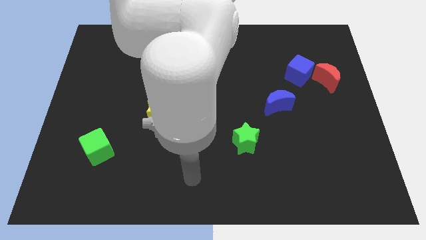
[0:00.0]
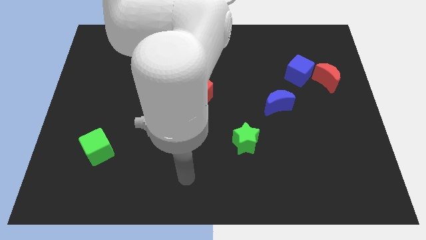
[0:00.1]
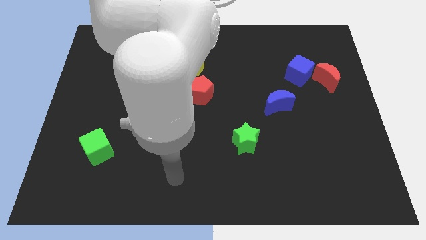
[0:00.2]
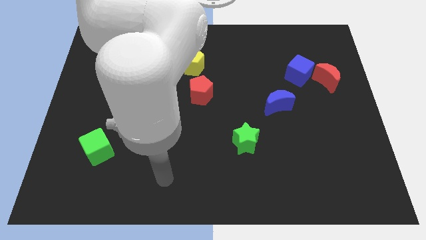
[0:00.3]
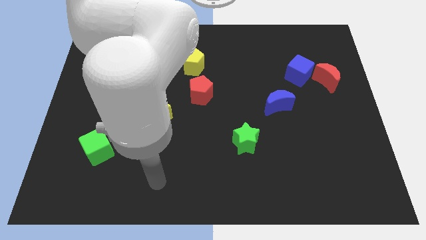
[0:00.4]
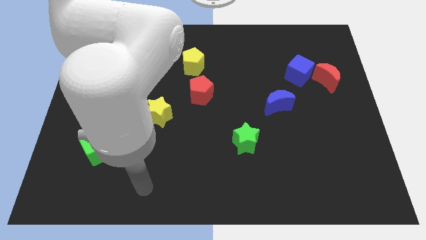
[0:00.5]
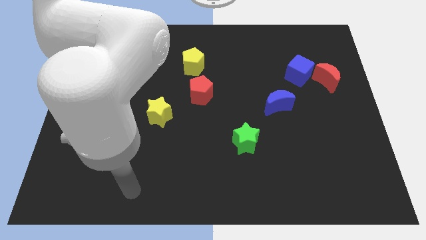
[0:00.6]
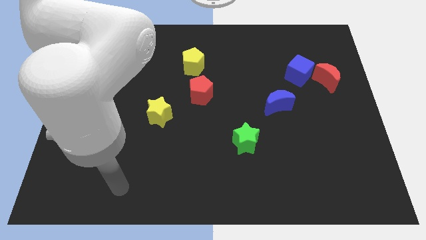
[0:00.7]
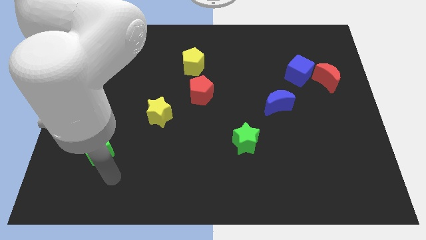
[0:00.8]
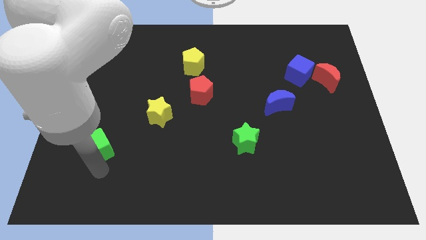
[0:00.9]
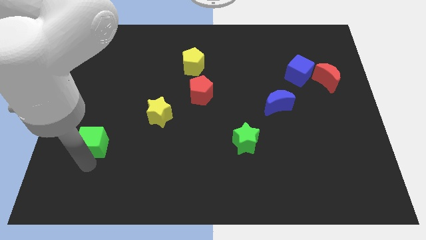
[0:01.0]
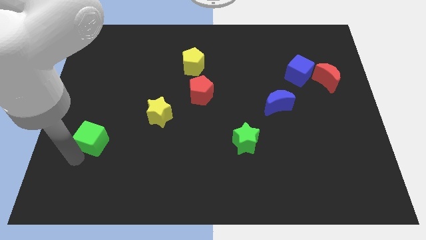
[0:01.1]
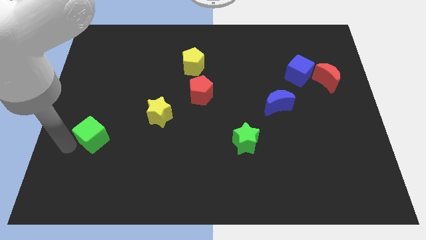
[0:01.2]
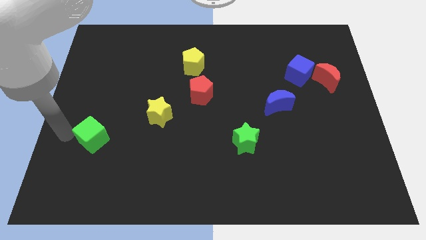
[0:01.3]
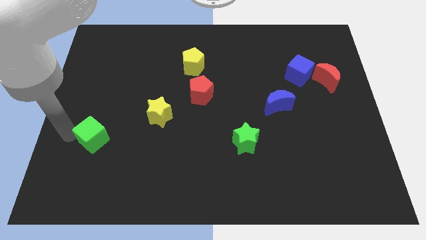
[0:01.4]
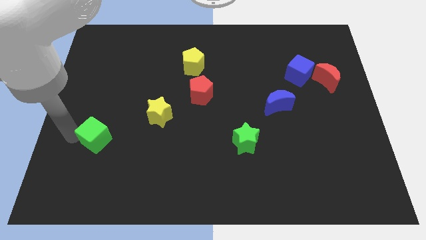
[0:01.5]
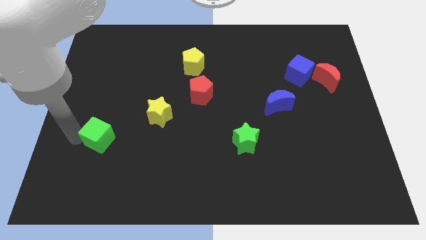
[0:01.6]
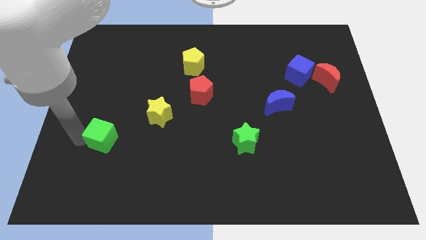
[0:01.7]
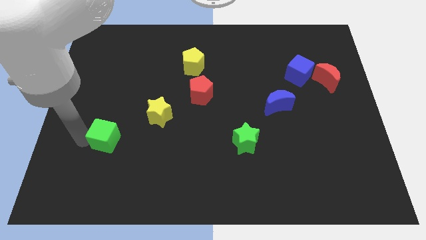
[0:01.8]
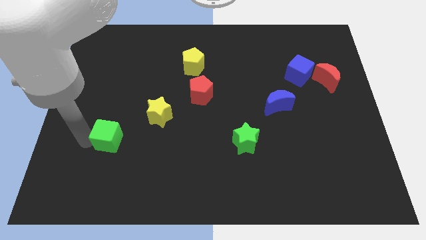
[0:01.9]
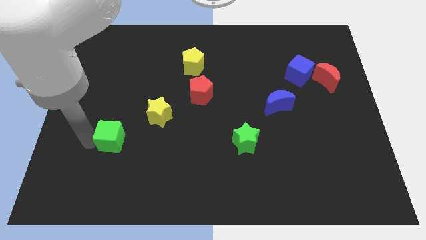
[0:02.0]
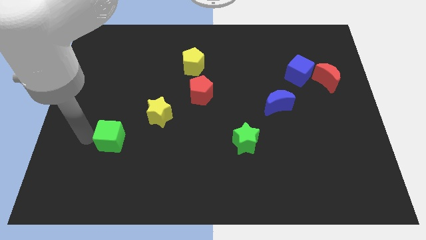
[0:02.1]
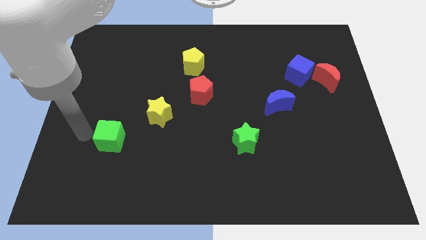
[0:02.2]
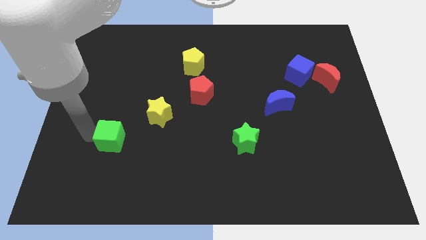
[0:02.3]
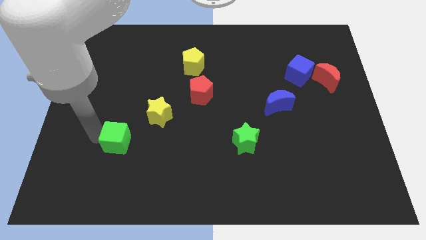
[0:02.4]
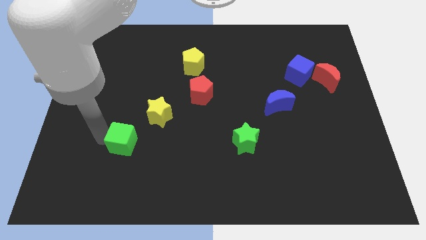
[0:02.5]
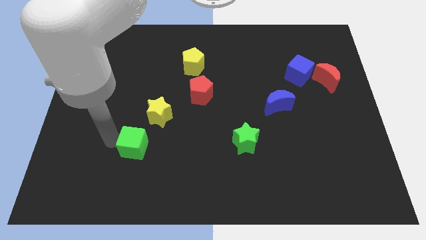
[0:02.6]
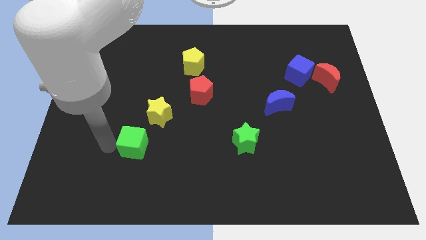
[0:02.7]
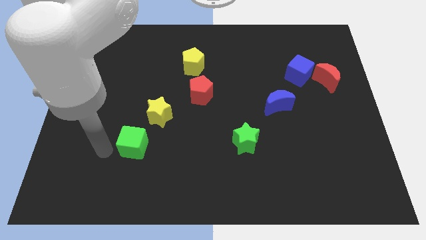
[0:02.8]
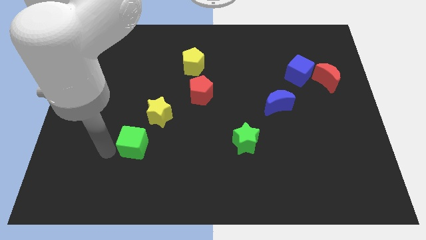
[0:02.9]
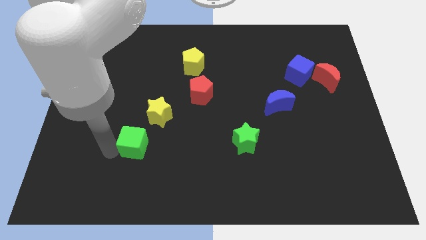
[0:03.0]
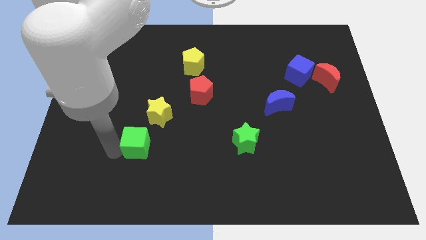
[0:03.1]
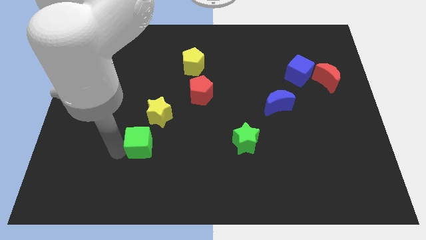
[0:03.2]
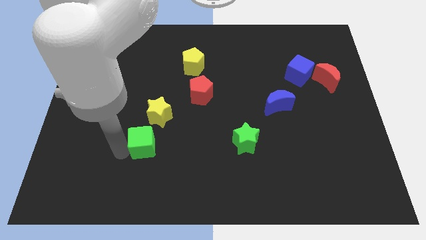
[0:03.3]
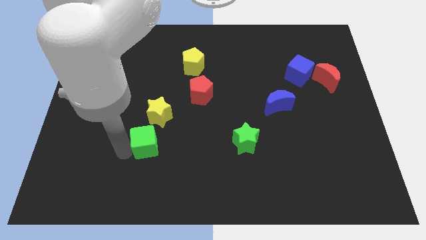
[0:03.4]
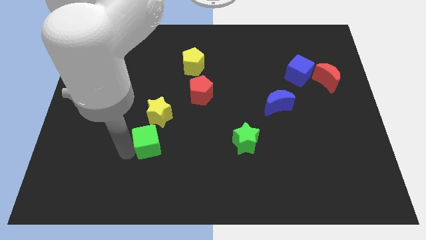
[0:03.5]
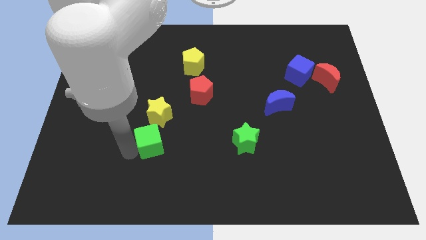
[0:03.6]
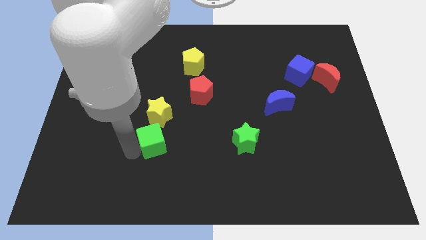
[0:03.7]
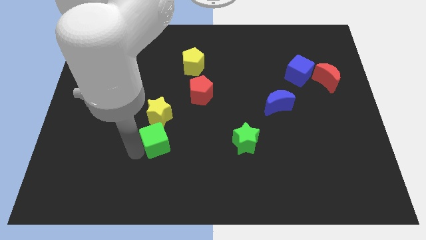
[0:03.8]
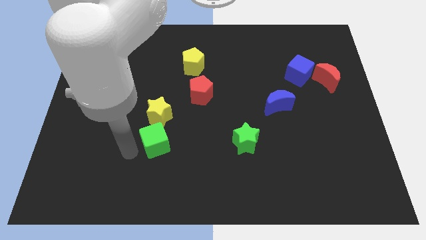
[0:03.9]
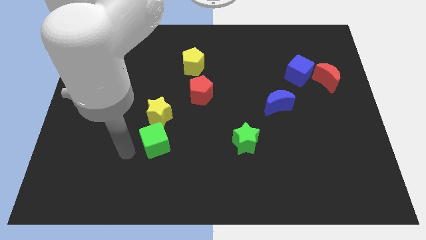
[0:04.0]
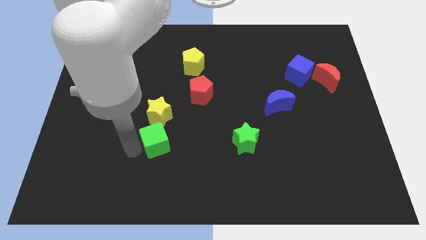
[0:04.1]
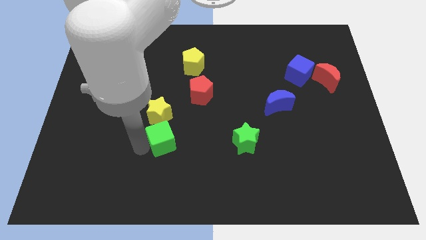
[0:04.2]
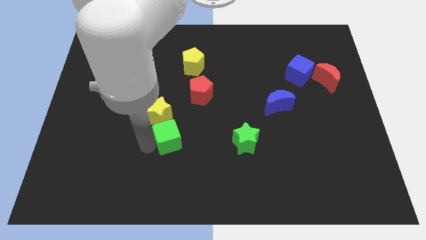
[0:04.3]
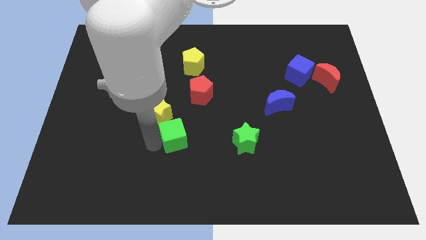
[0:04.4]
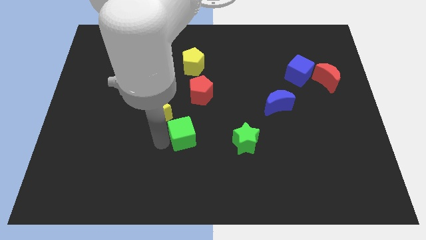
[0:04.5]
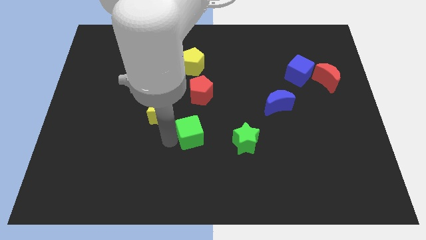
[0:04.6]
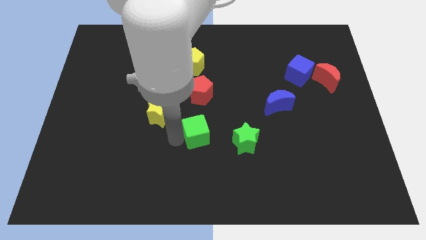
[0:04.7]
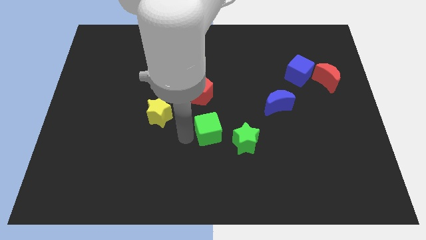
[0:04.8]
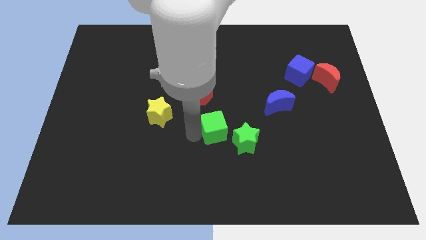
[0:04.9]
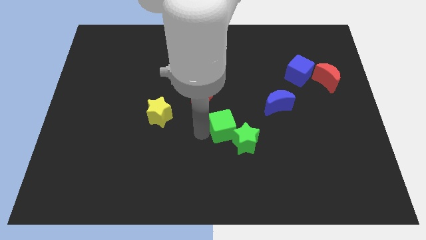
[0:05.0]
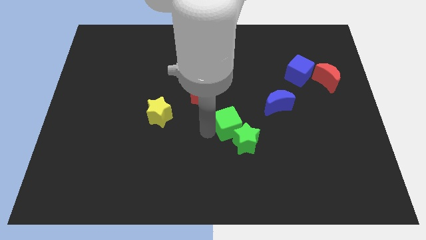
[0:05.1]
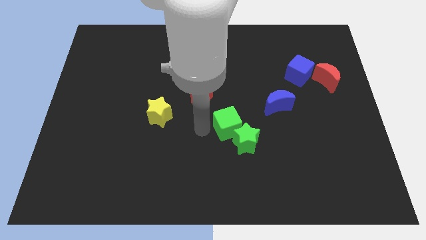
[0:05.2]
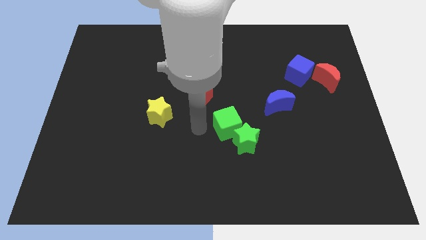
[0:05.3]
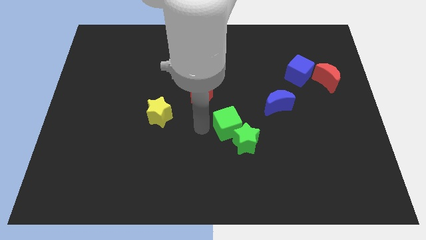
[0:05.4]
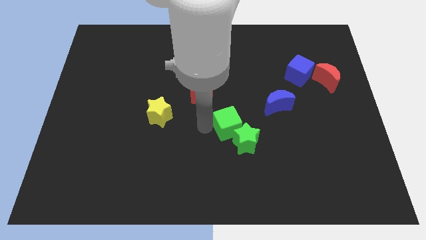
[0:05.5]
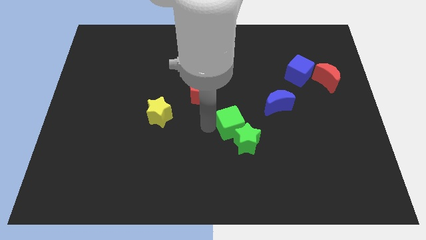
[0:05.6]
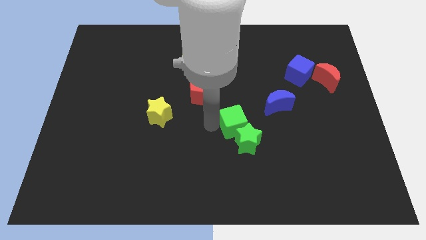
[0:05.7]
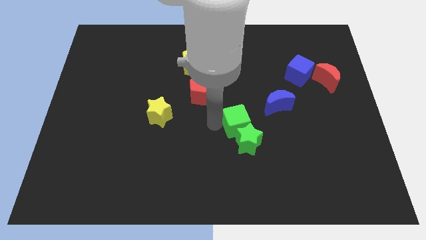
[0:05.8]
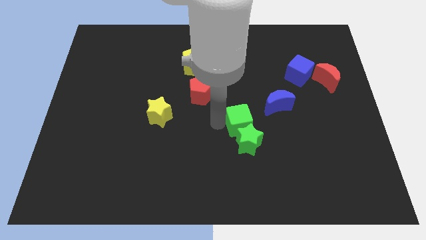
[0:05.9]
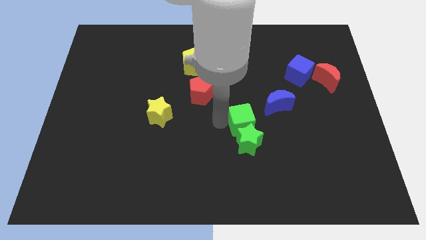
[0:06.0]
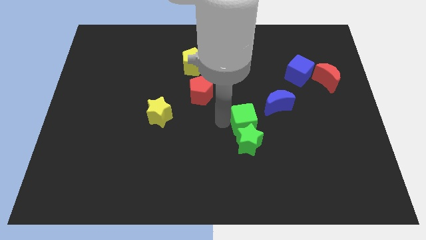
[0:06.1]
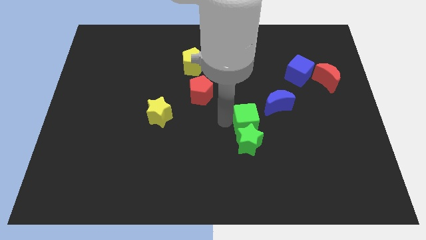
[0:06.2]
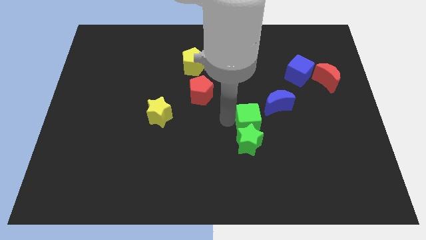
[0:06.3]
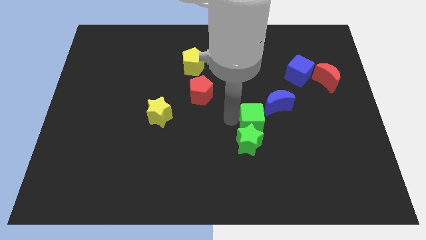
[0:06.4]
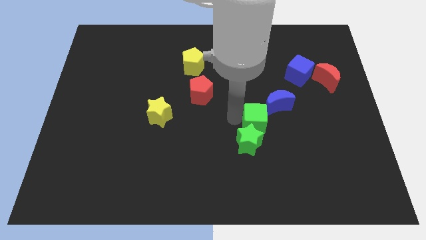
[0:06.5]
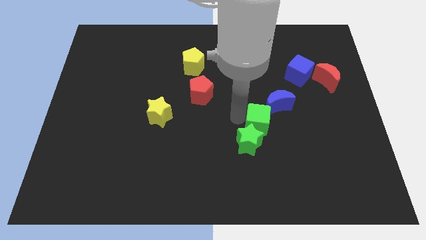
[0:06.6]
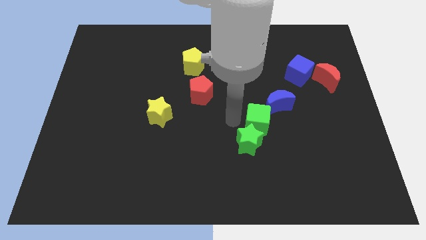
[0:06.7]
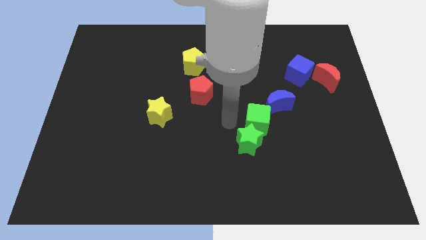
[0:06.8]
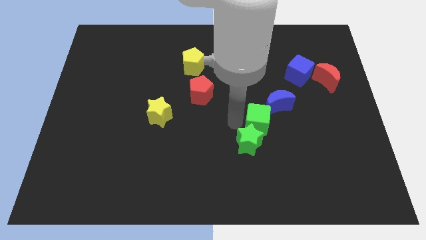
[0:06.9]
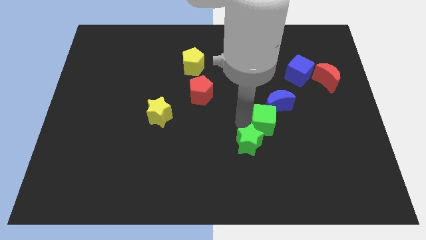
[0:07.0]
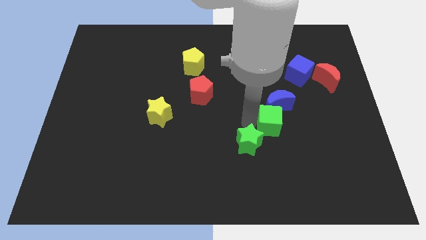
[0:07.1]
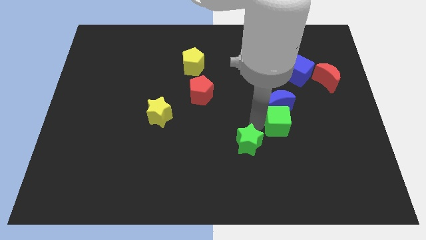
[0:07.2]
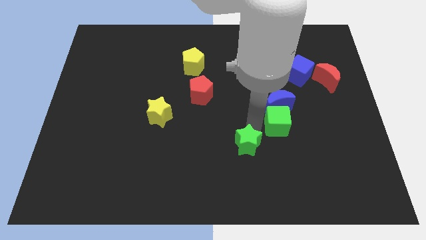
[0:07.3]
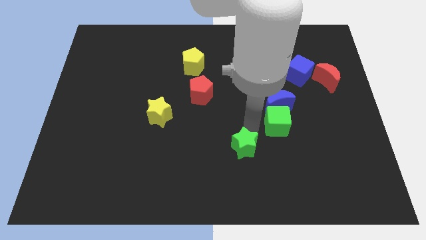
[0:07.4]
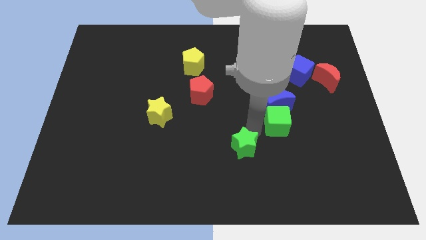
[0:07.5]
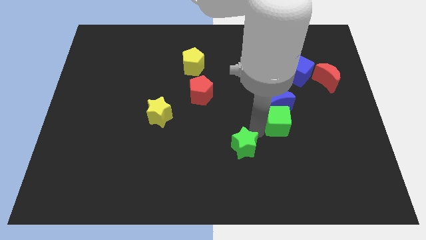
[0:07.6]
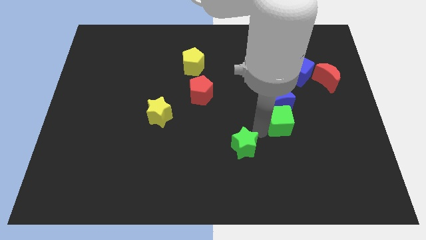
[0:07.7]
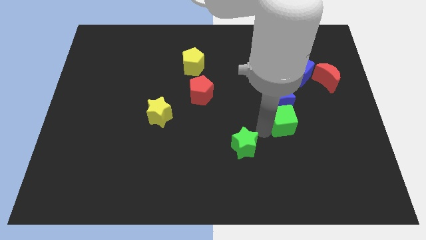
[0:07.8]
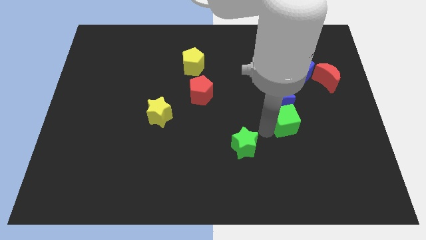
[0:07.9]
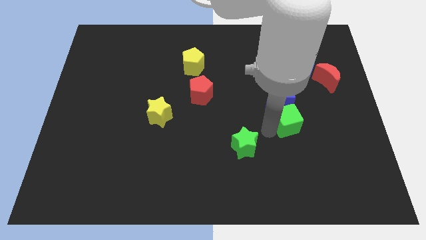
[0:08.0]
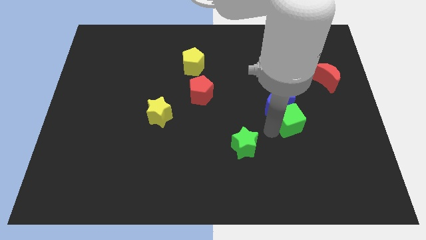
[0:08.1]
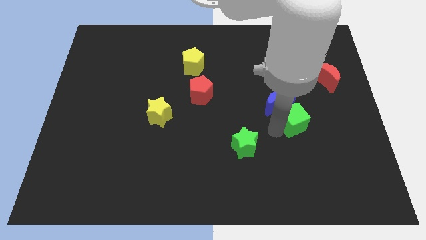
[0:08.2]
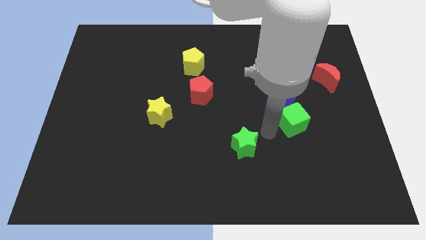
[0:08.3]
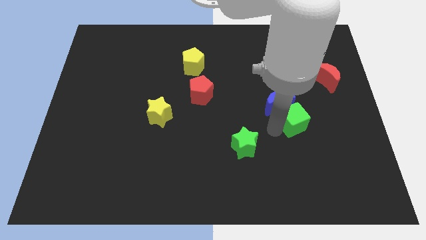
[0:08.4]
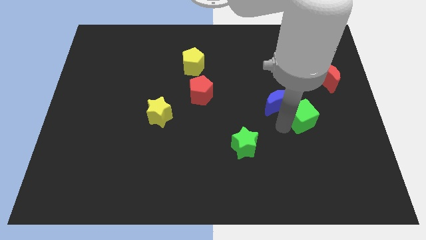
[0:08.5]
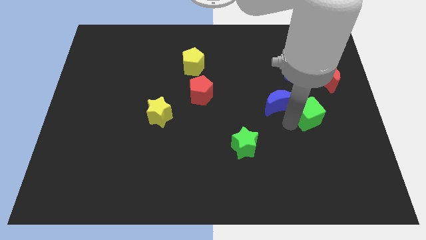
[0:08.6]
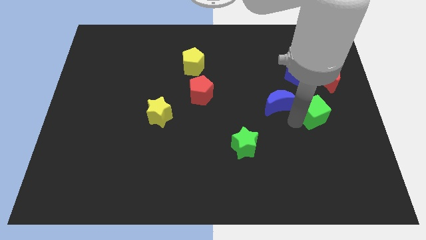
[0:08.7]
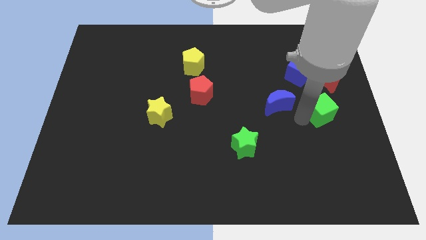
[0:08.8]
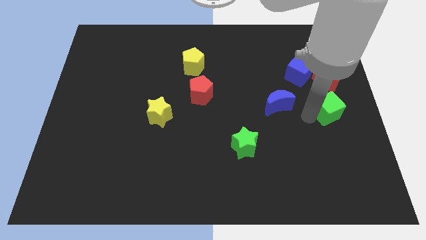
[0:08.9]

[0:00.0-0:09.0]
put the green cube to the right side
